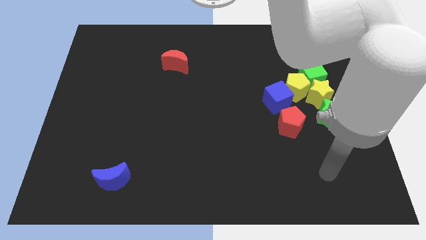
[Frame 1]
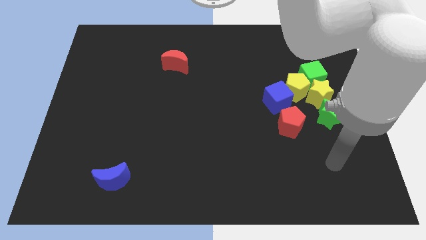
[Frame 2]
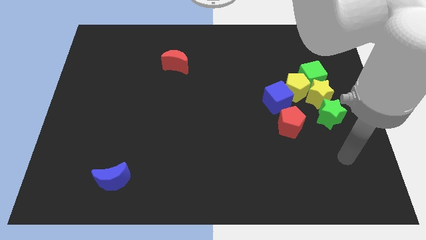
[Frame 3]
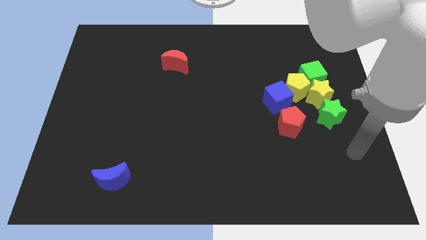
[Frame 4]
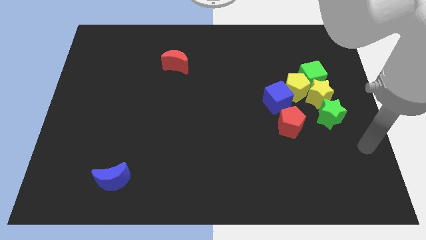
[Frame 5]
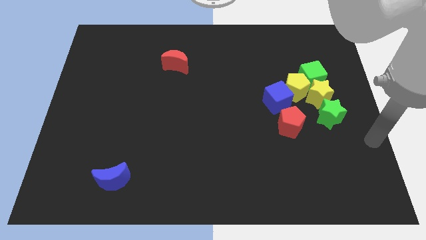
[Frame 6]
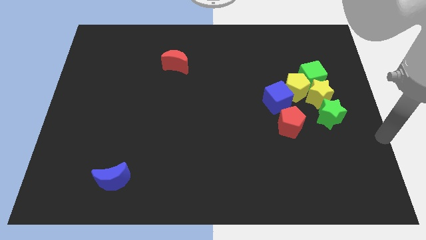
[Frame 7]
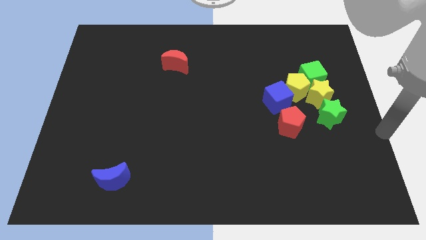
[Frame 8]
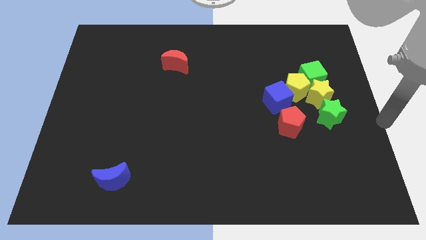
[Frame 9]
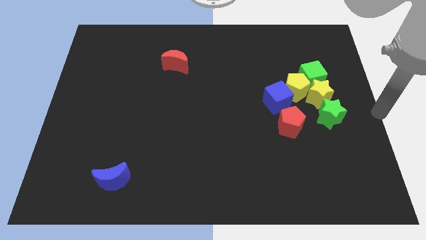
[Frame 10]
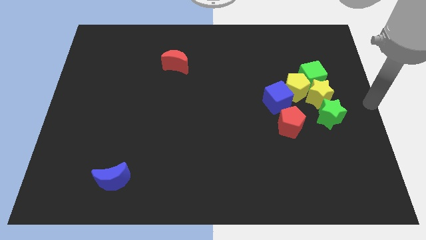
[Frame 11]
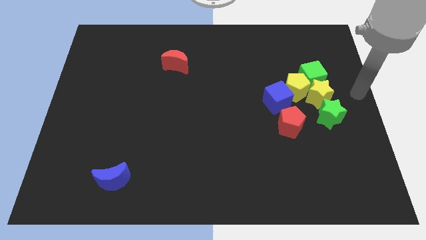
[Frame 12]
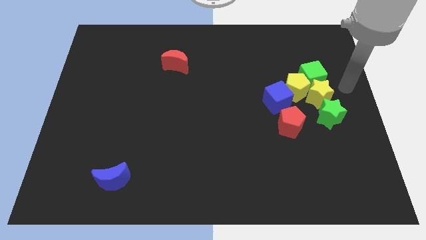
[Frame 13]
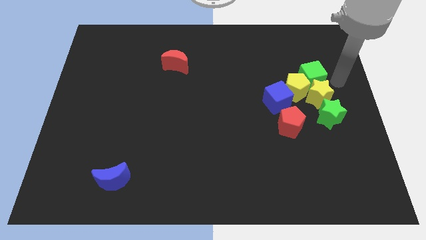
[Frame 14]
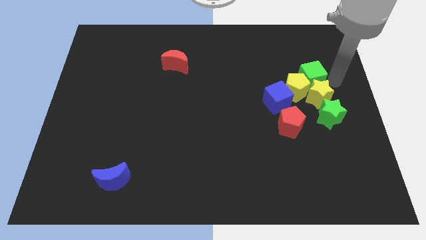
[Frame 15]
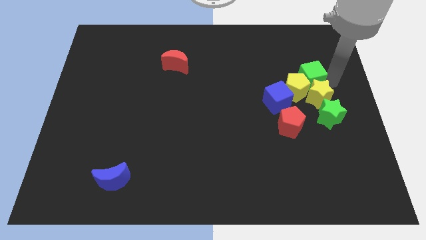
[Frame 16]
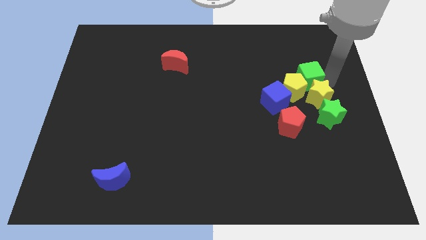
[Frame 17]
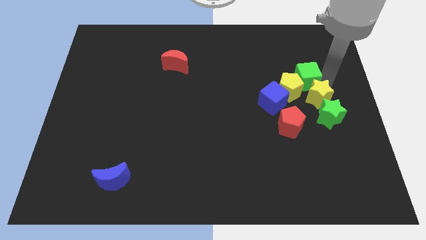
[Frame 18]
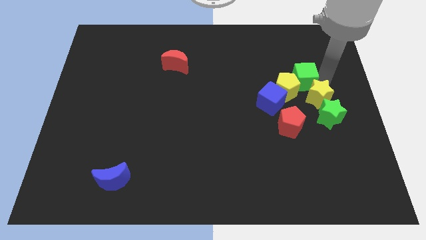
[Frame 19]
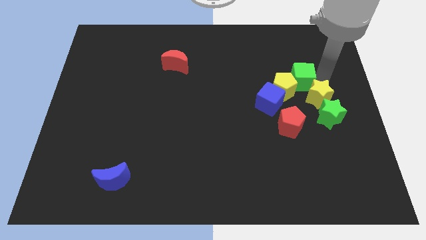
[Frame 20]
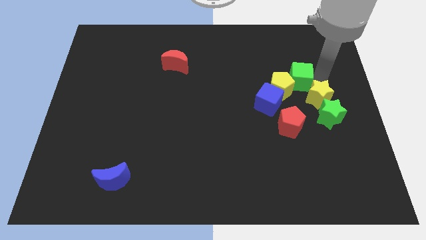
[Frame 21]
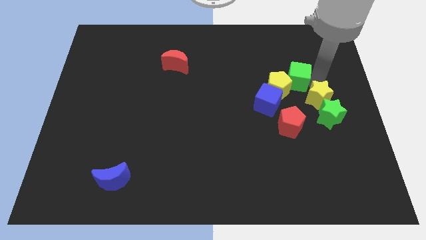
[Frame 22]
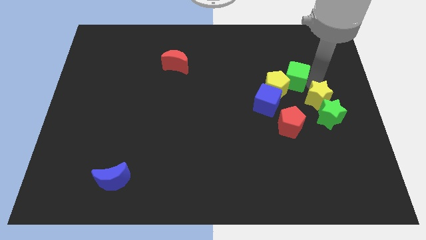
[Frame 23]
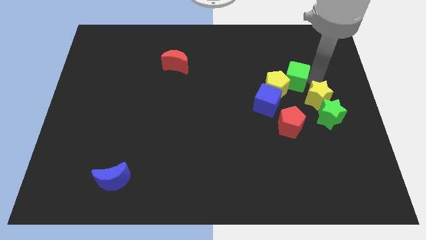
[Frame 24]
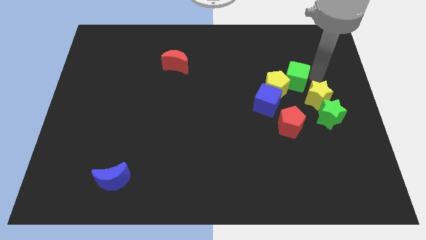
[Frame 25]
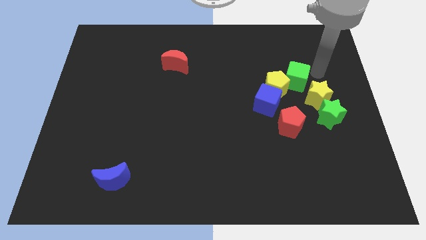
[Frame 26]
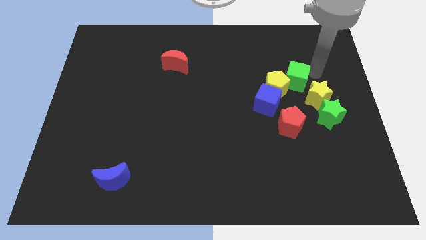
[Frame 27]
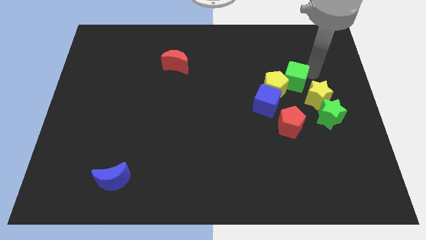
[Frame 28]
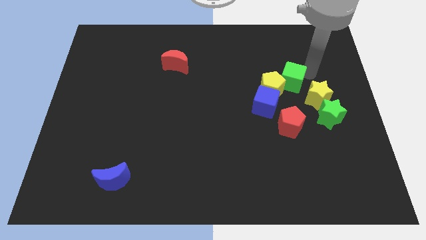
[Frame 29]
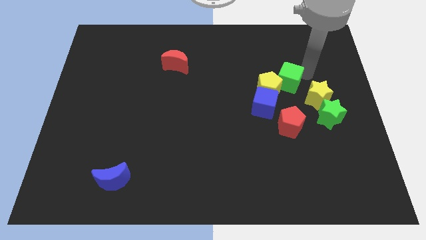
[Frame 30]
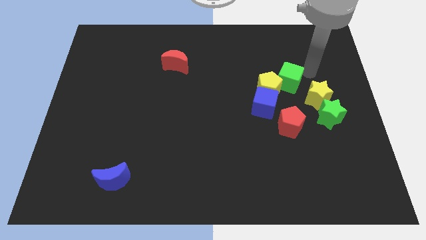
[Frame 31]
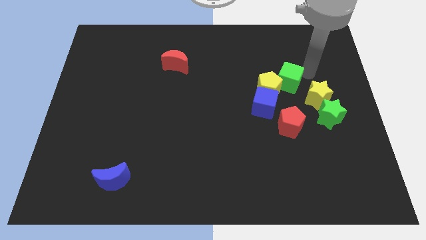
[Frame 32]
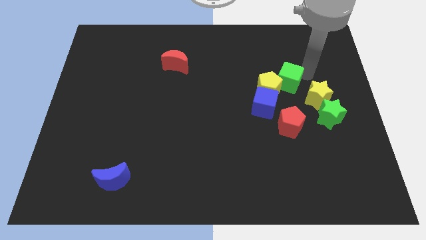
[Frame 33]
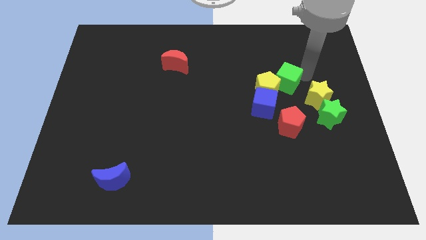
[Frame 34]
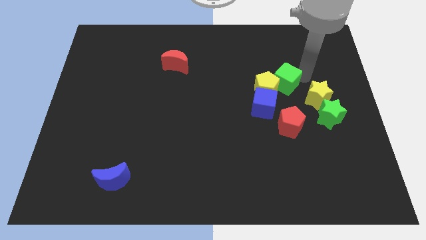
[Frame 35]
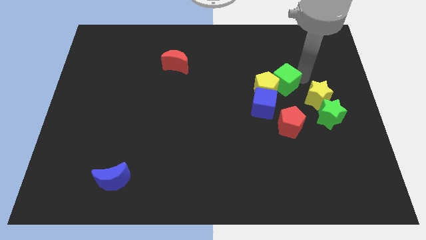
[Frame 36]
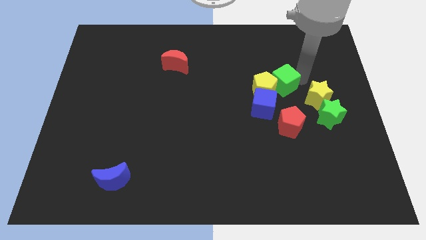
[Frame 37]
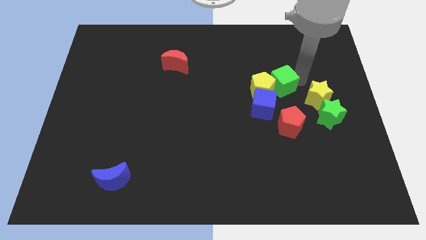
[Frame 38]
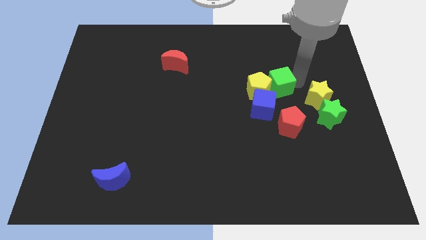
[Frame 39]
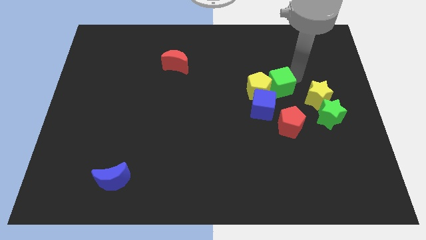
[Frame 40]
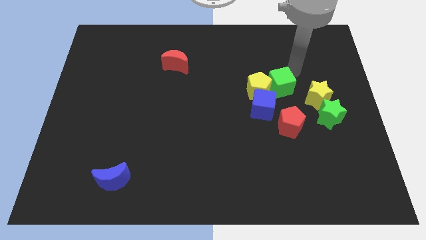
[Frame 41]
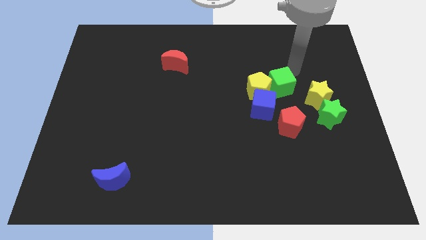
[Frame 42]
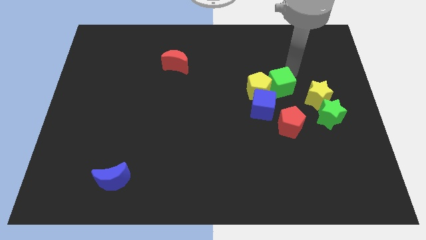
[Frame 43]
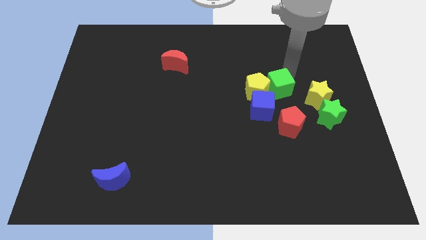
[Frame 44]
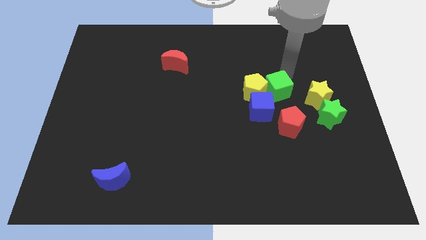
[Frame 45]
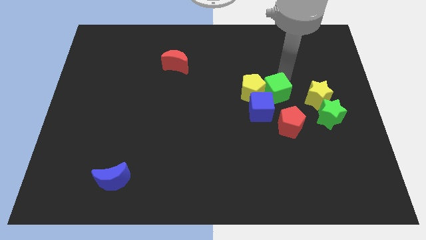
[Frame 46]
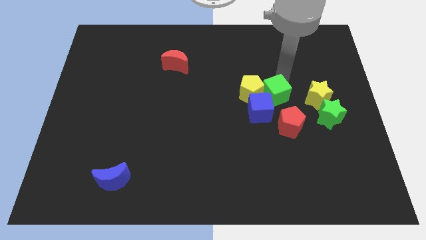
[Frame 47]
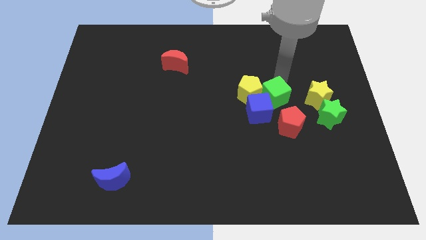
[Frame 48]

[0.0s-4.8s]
put the green cube towards the blue cube

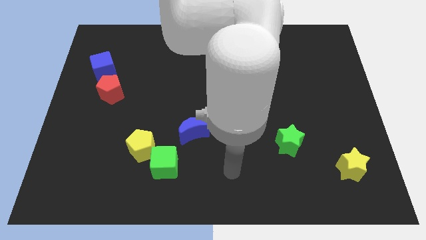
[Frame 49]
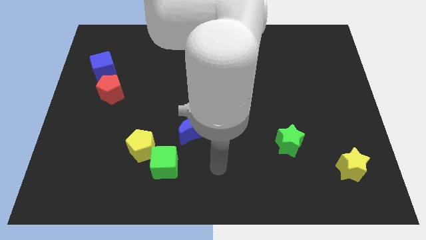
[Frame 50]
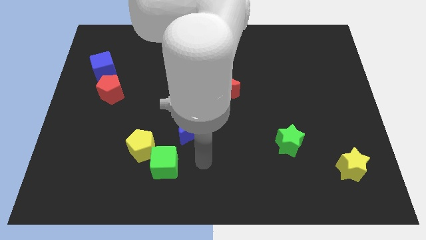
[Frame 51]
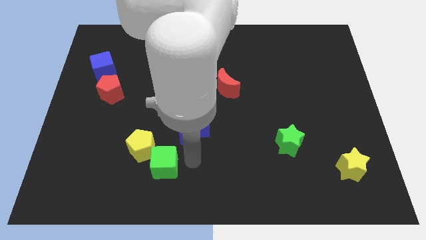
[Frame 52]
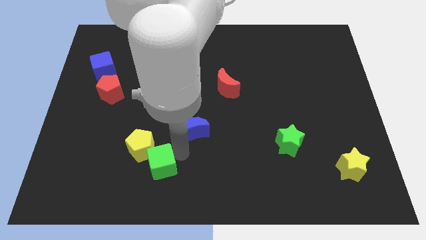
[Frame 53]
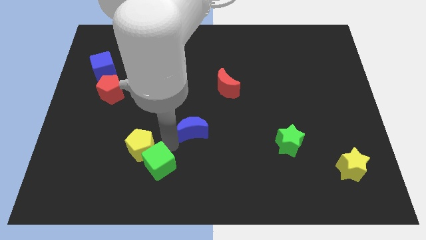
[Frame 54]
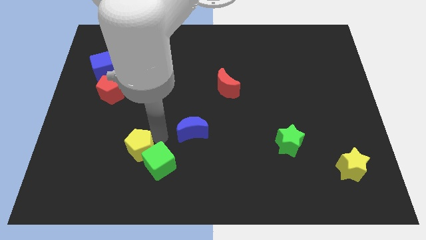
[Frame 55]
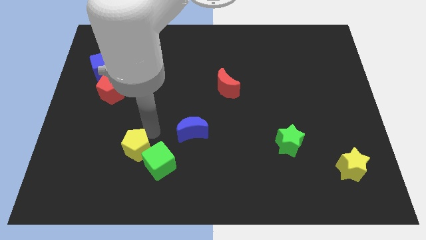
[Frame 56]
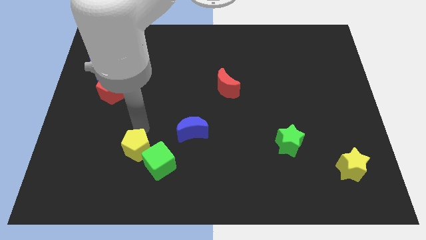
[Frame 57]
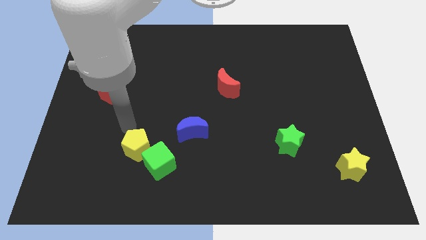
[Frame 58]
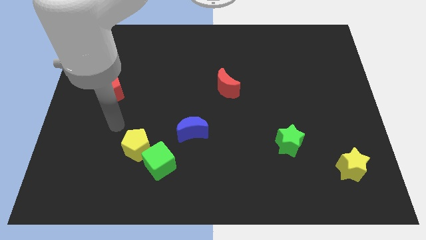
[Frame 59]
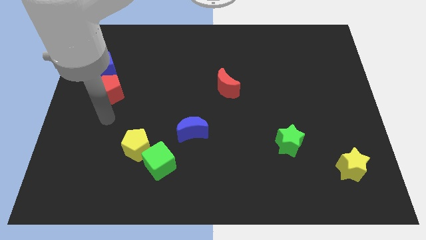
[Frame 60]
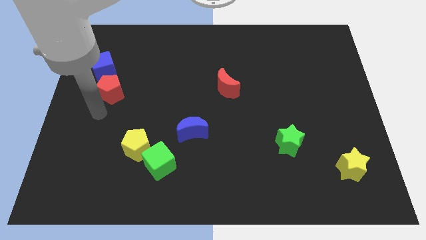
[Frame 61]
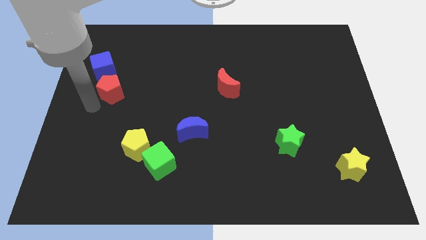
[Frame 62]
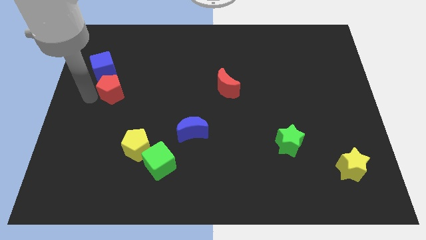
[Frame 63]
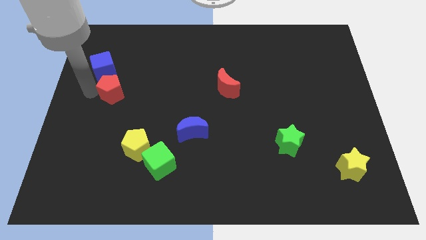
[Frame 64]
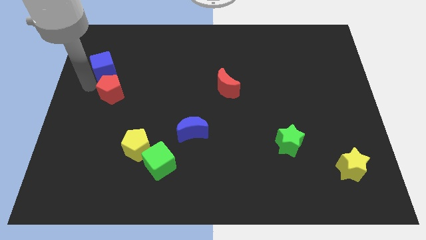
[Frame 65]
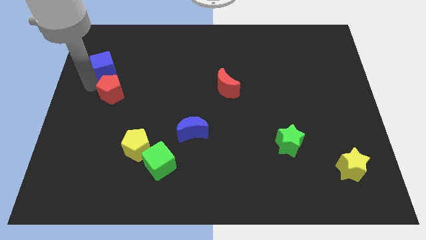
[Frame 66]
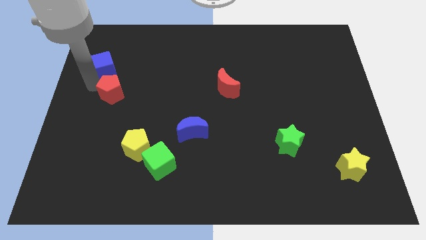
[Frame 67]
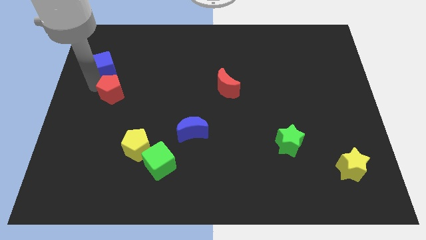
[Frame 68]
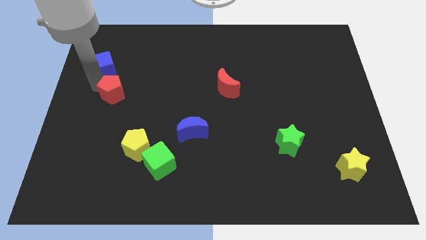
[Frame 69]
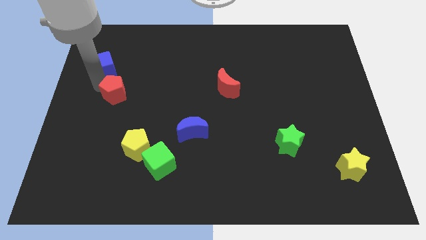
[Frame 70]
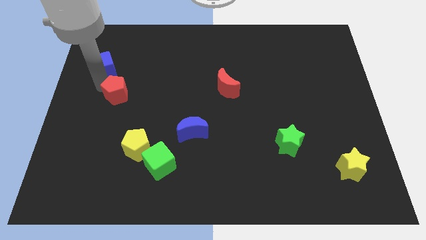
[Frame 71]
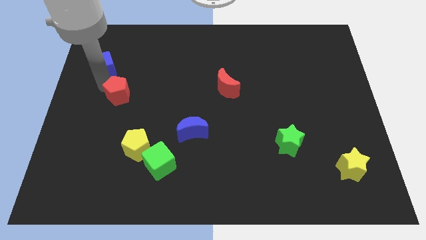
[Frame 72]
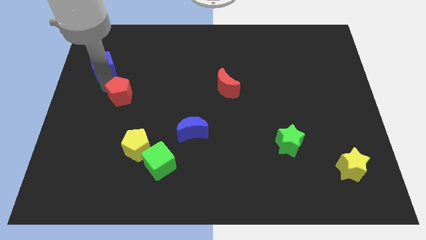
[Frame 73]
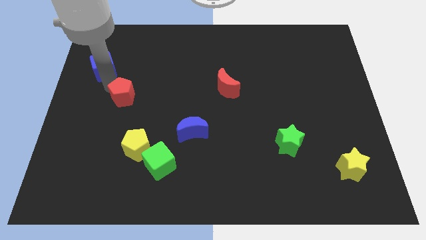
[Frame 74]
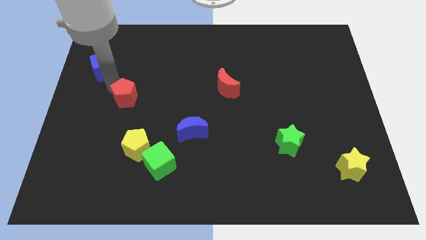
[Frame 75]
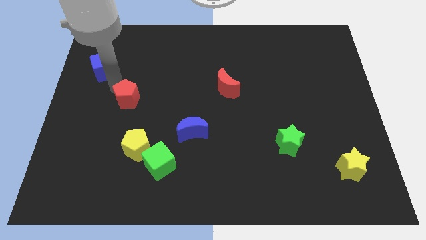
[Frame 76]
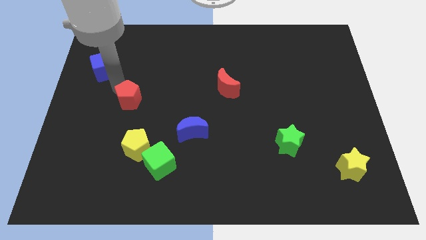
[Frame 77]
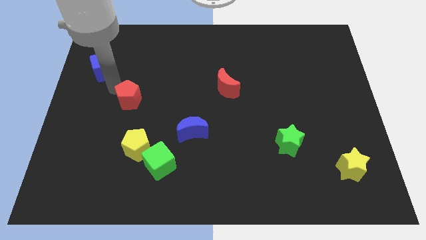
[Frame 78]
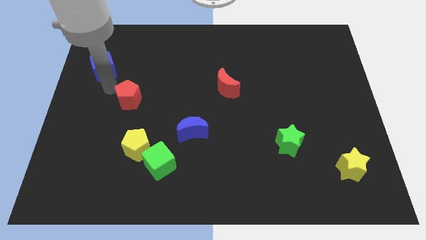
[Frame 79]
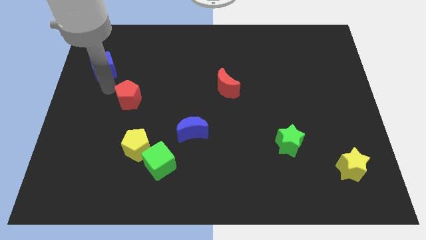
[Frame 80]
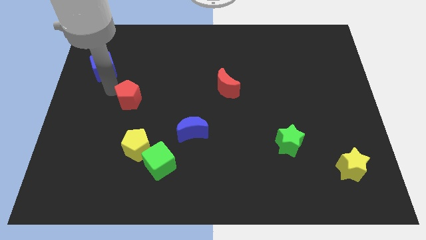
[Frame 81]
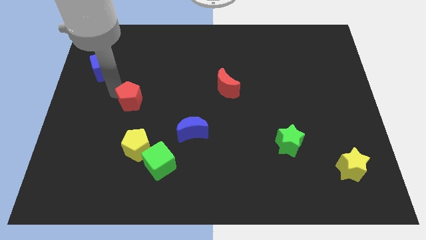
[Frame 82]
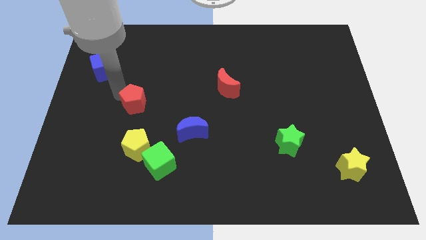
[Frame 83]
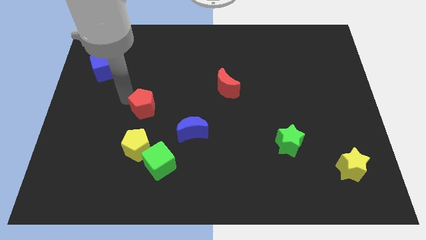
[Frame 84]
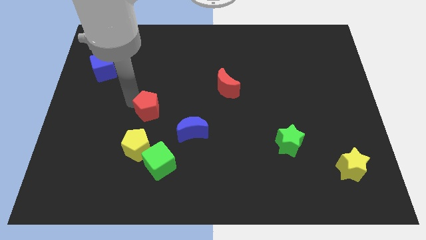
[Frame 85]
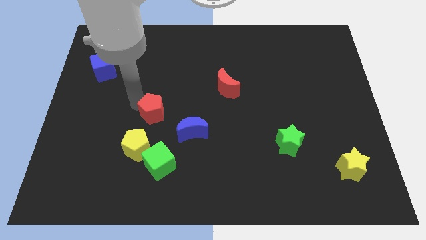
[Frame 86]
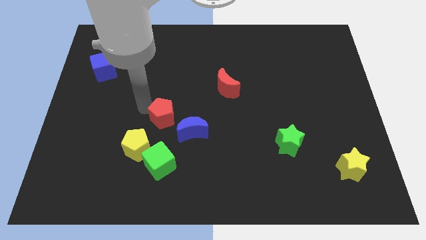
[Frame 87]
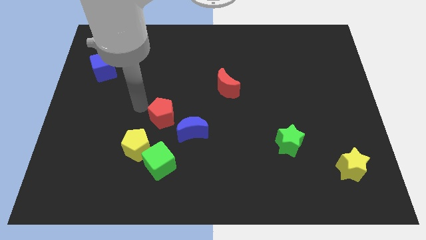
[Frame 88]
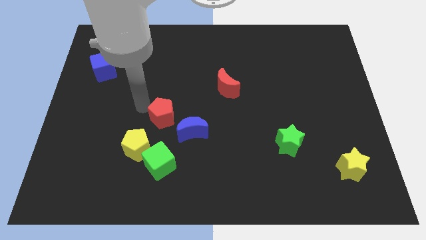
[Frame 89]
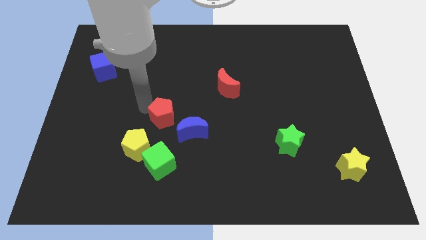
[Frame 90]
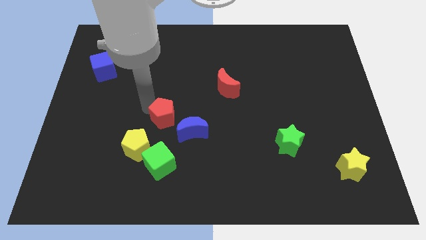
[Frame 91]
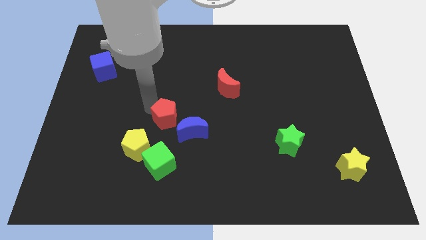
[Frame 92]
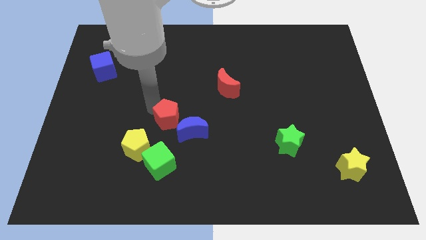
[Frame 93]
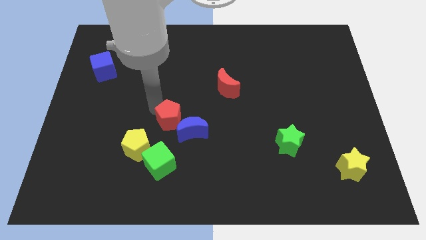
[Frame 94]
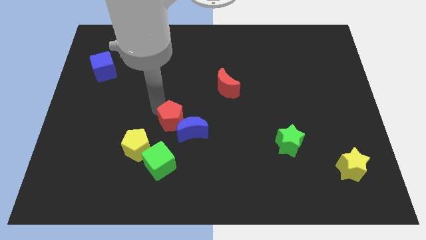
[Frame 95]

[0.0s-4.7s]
slide the red pentagon towards the blue moon
